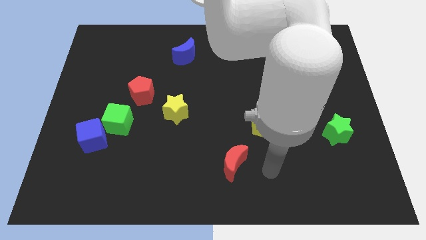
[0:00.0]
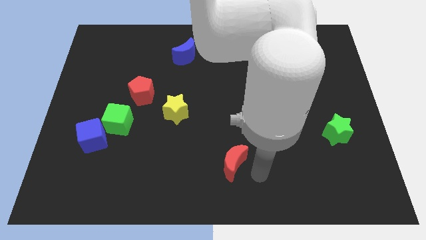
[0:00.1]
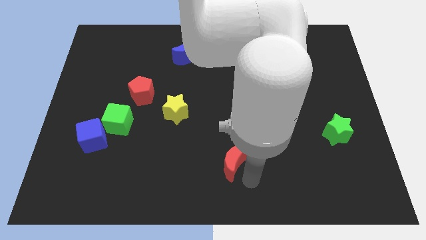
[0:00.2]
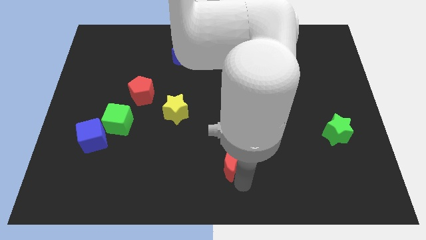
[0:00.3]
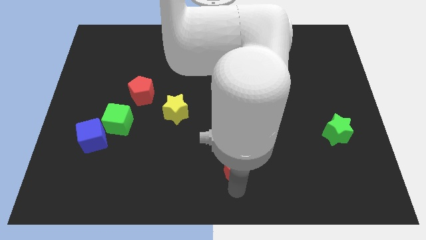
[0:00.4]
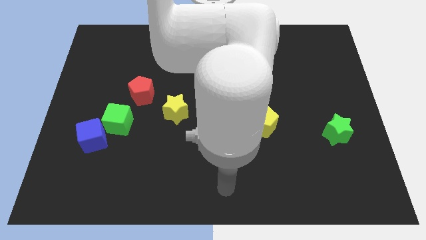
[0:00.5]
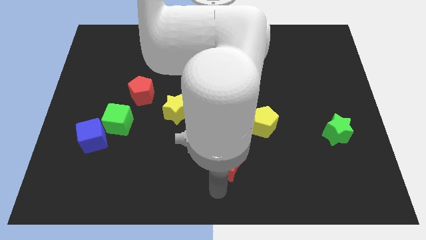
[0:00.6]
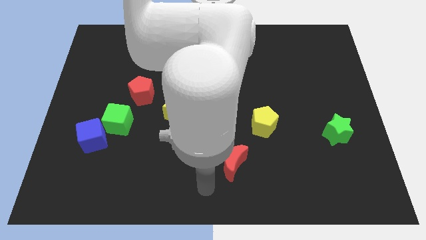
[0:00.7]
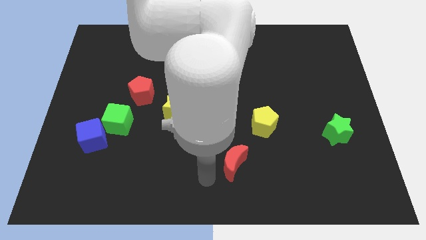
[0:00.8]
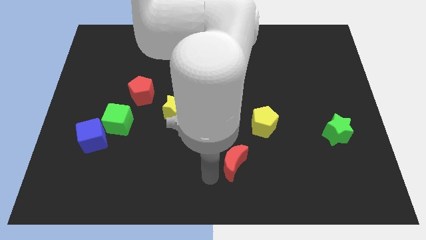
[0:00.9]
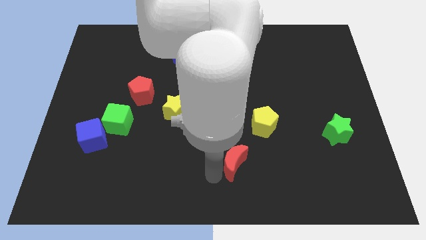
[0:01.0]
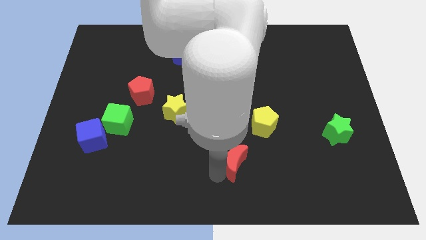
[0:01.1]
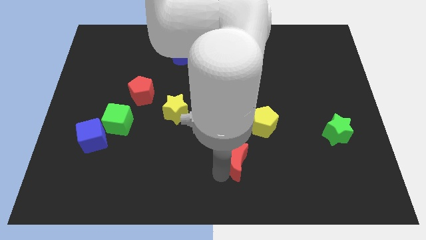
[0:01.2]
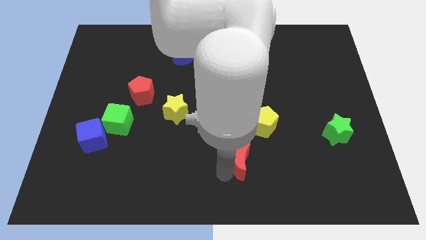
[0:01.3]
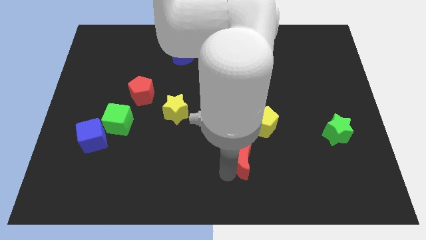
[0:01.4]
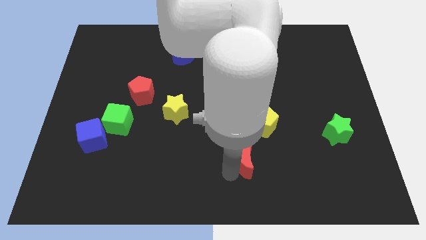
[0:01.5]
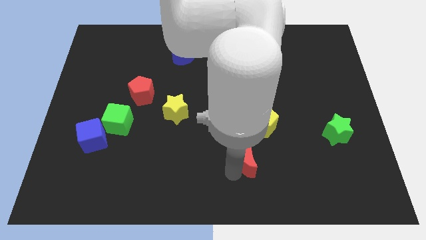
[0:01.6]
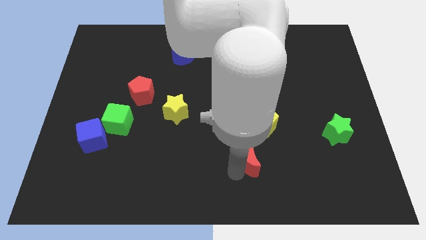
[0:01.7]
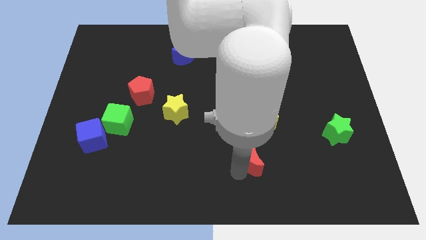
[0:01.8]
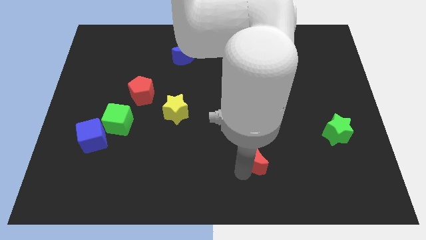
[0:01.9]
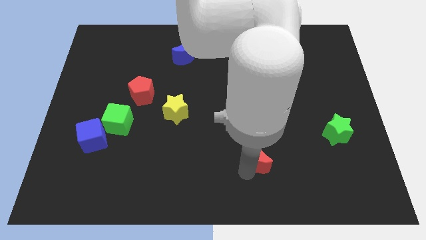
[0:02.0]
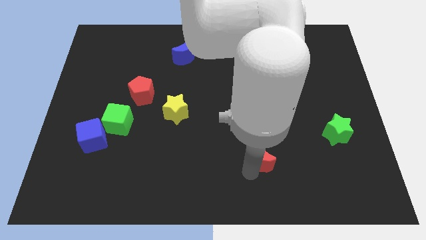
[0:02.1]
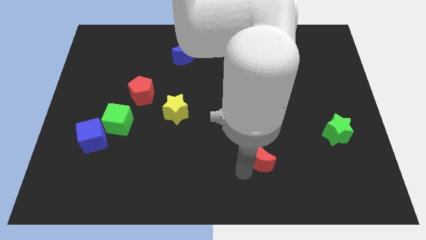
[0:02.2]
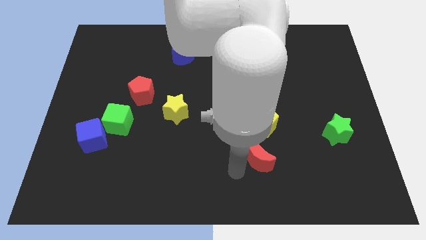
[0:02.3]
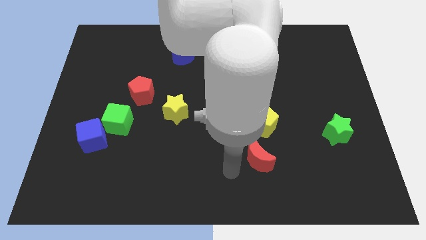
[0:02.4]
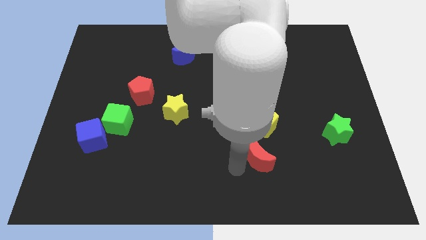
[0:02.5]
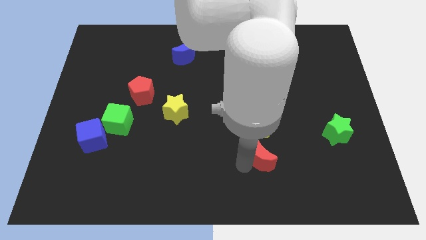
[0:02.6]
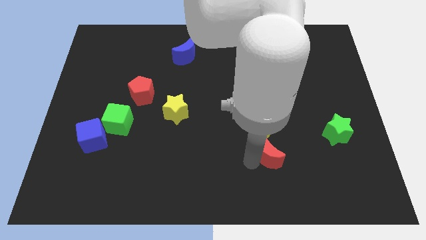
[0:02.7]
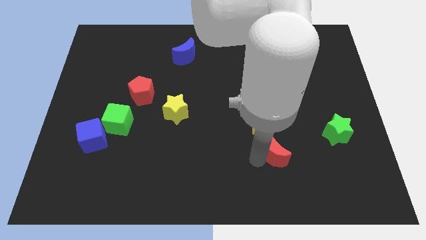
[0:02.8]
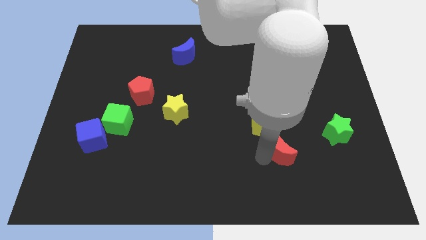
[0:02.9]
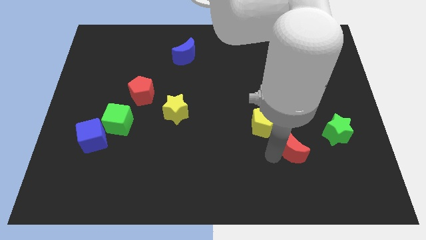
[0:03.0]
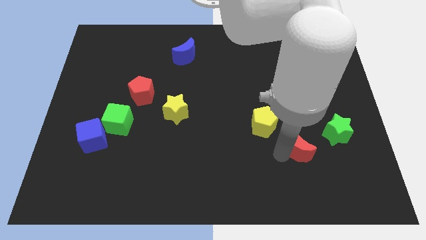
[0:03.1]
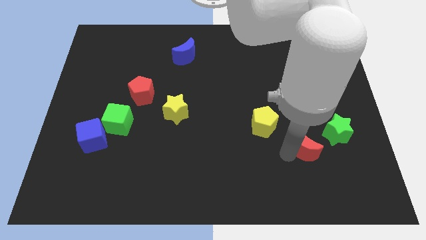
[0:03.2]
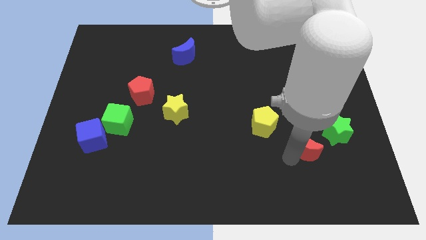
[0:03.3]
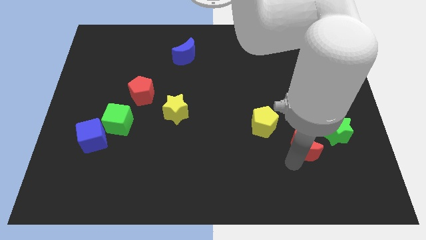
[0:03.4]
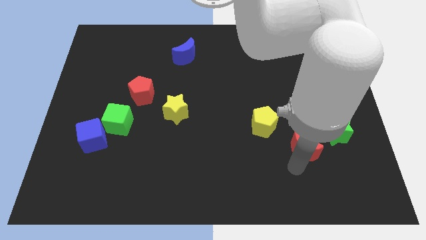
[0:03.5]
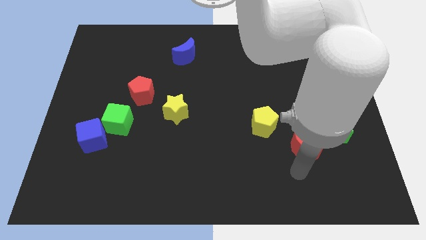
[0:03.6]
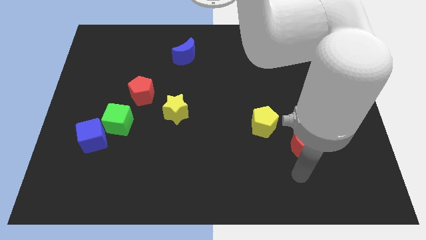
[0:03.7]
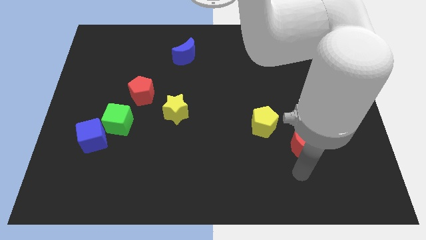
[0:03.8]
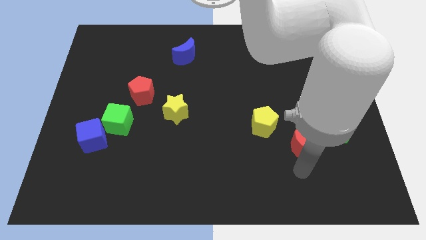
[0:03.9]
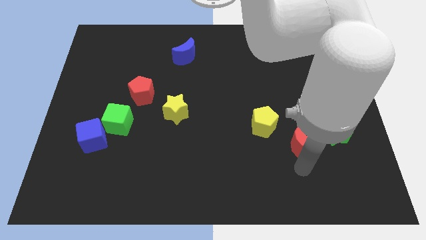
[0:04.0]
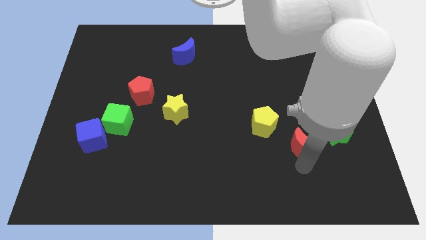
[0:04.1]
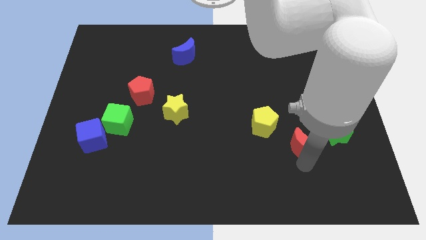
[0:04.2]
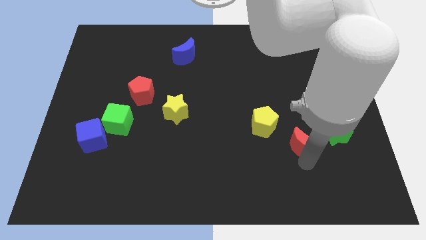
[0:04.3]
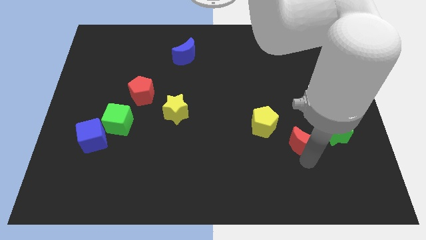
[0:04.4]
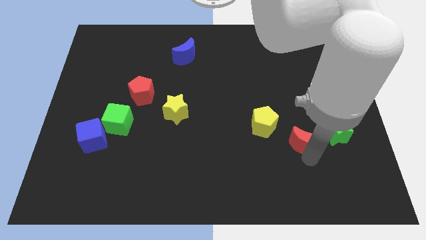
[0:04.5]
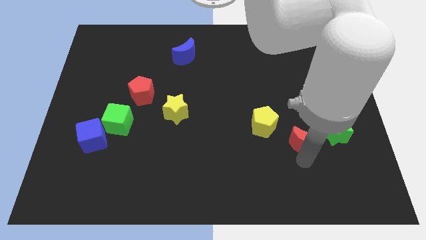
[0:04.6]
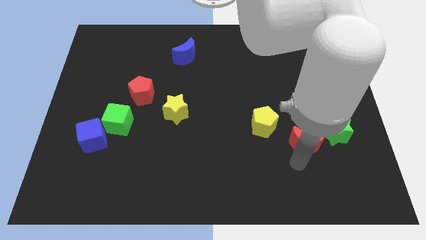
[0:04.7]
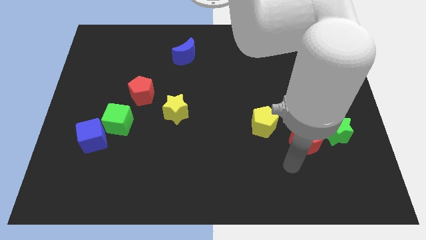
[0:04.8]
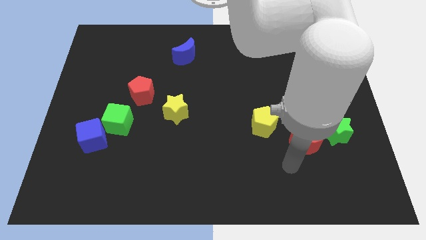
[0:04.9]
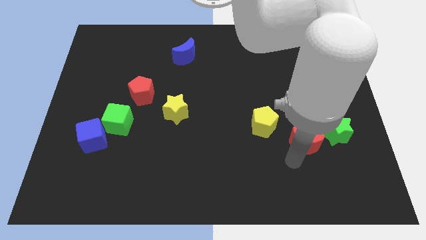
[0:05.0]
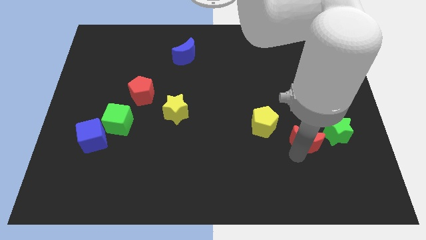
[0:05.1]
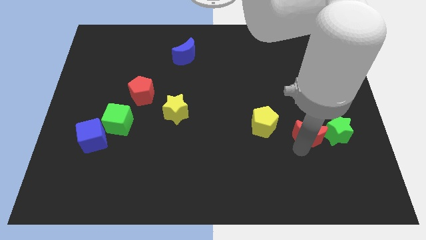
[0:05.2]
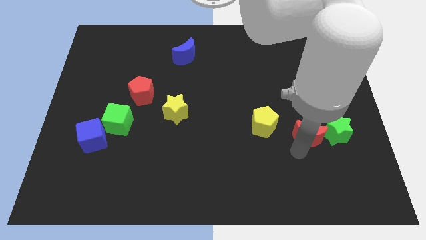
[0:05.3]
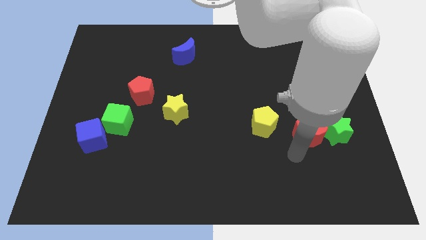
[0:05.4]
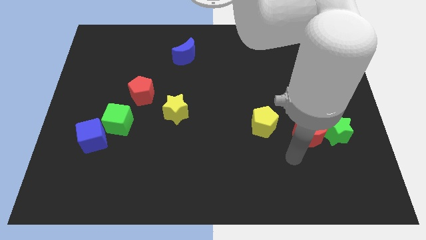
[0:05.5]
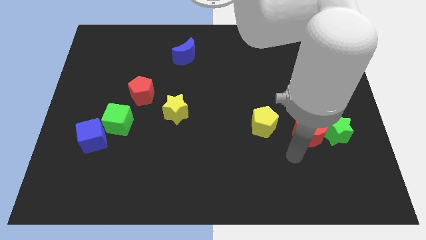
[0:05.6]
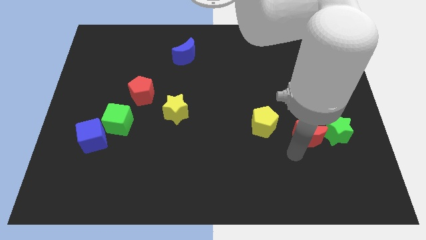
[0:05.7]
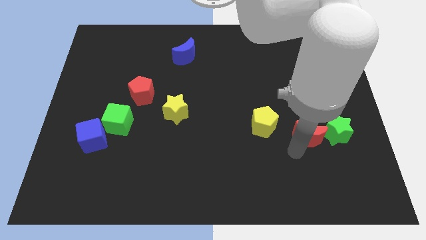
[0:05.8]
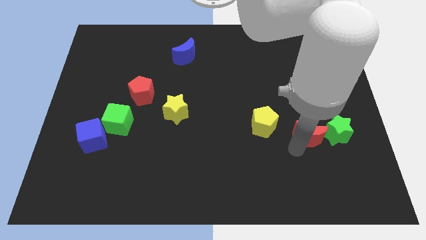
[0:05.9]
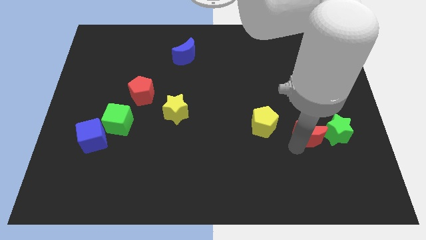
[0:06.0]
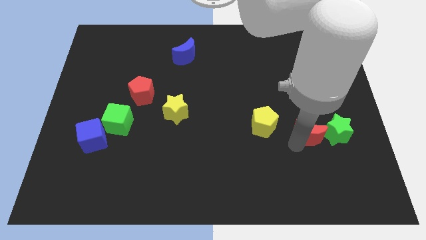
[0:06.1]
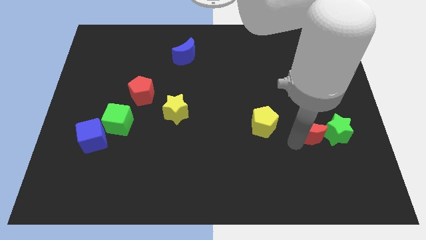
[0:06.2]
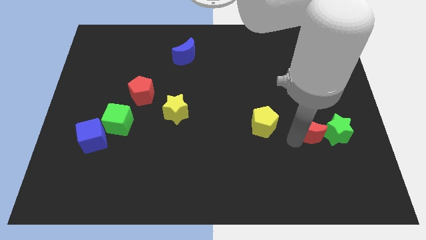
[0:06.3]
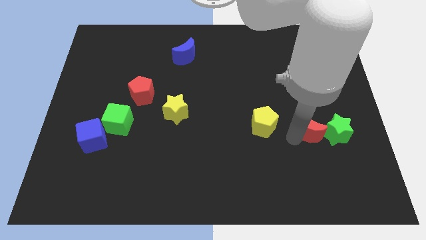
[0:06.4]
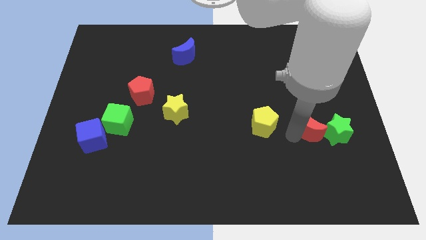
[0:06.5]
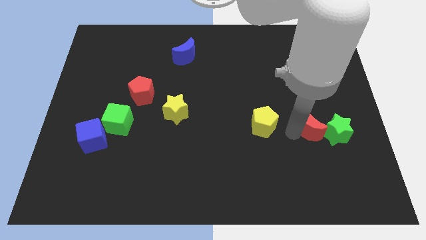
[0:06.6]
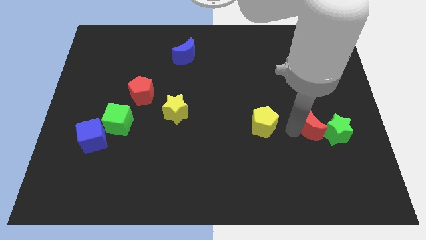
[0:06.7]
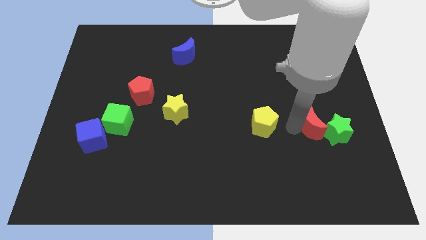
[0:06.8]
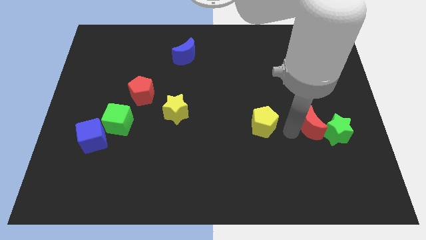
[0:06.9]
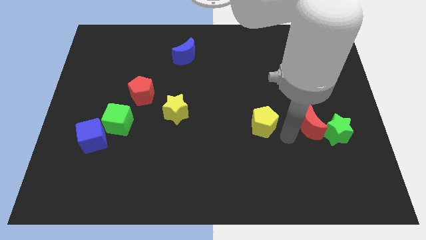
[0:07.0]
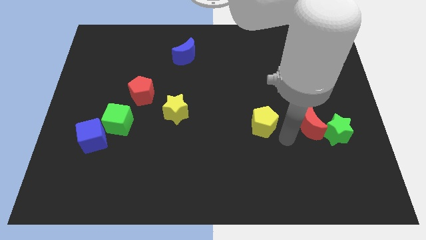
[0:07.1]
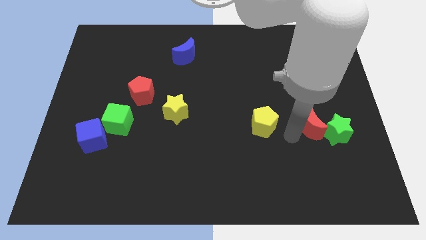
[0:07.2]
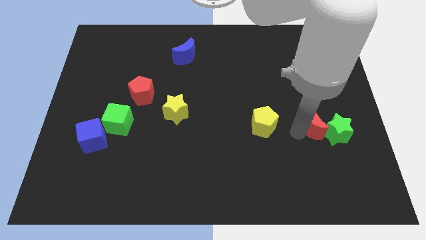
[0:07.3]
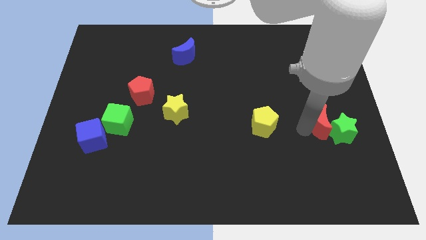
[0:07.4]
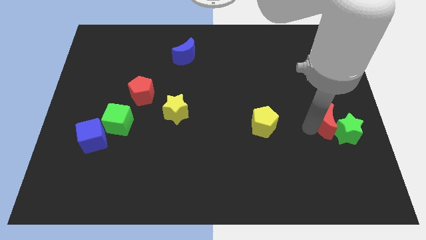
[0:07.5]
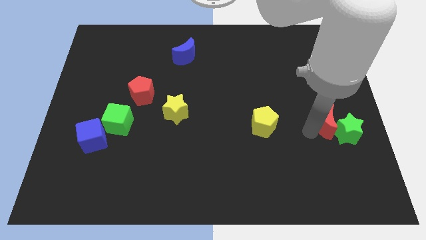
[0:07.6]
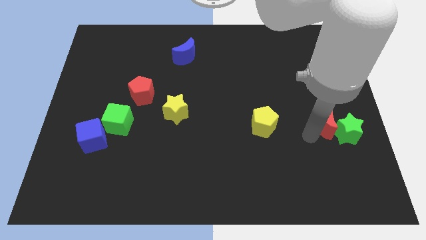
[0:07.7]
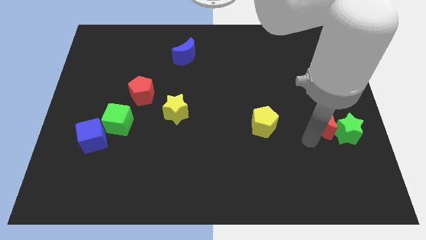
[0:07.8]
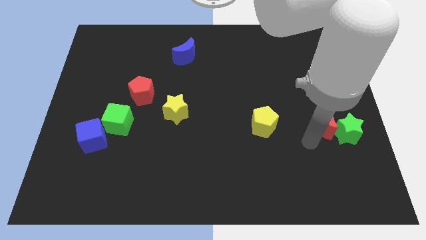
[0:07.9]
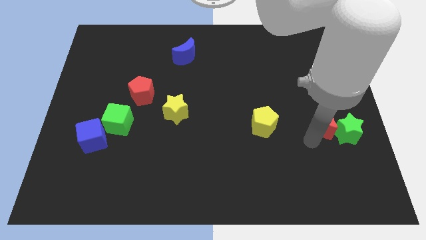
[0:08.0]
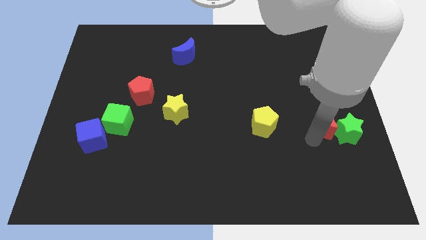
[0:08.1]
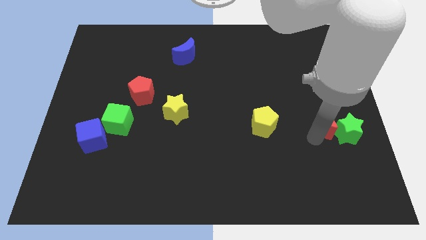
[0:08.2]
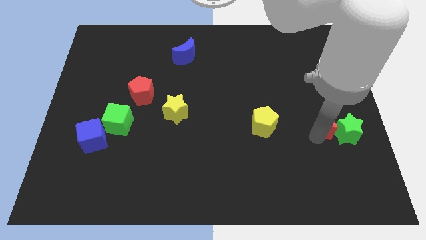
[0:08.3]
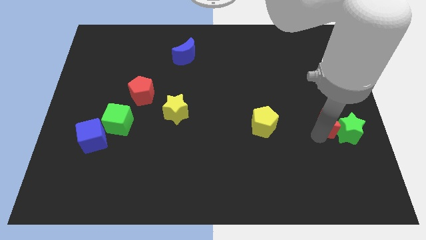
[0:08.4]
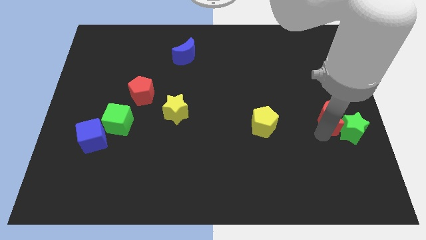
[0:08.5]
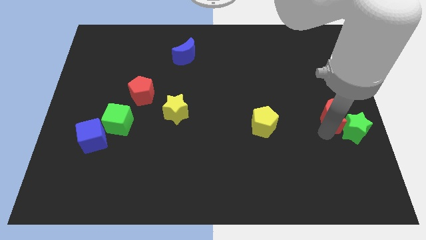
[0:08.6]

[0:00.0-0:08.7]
slide the red moon to the right side of the board
